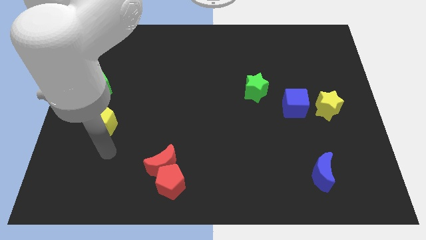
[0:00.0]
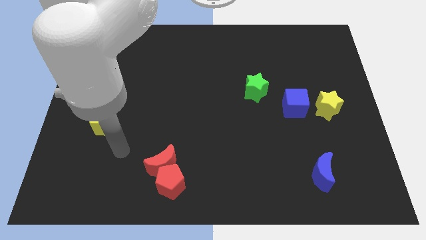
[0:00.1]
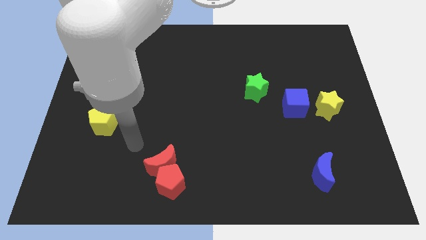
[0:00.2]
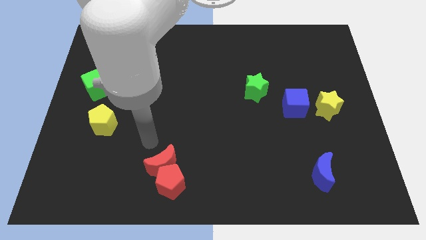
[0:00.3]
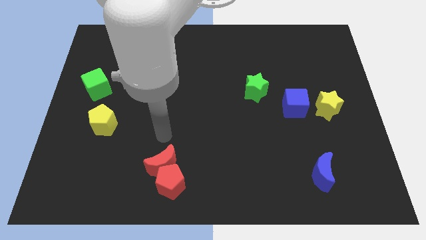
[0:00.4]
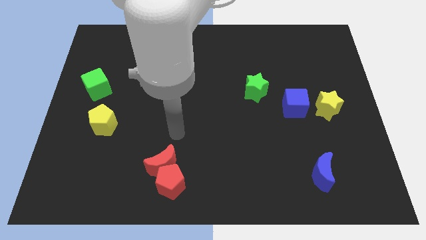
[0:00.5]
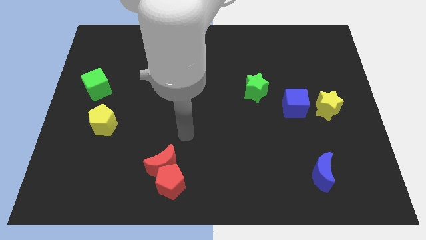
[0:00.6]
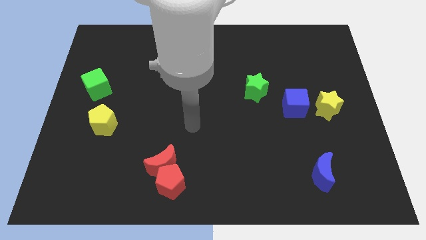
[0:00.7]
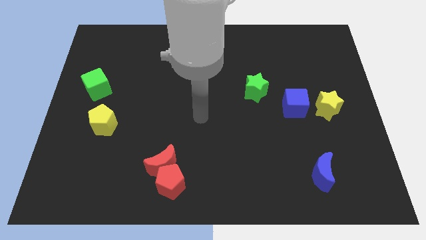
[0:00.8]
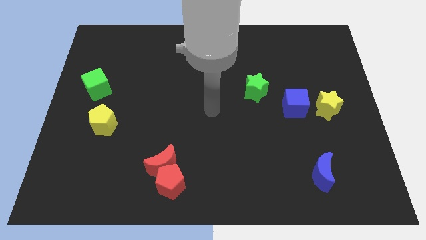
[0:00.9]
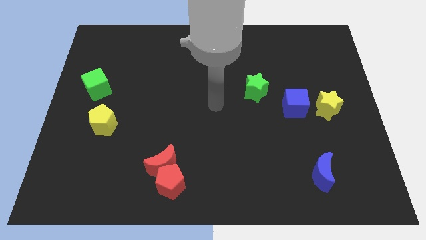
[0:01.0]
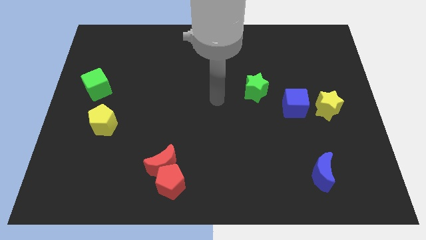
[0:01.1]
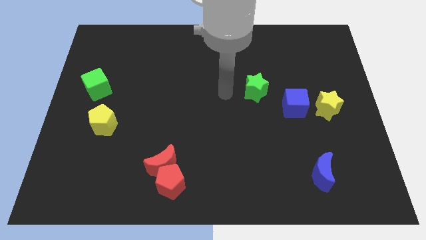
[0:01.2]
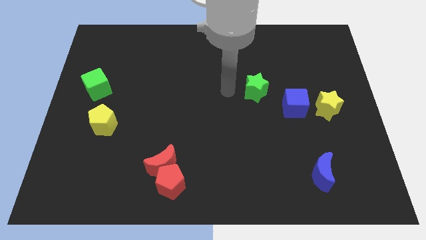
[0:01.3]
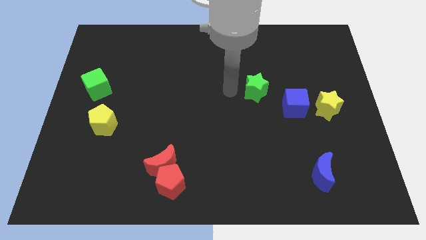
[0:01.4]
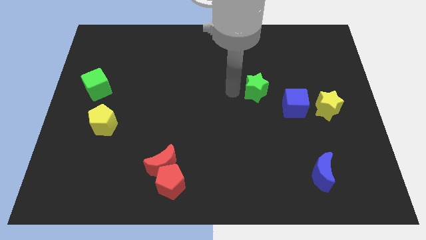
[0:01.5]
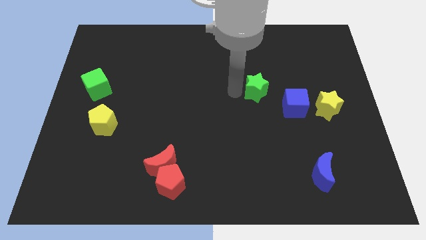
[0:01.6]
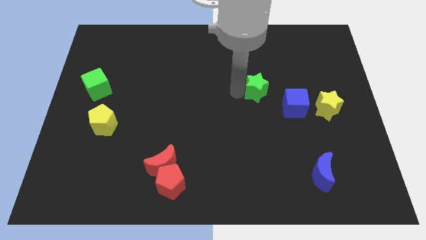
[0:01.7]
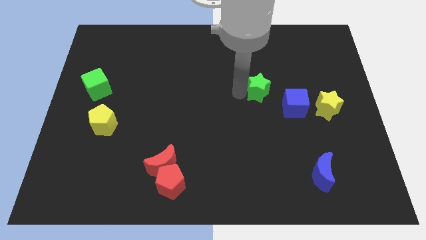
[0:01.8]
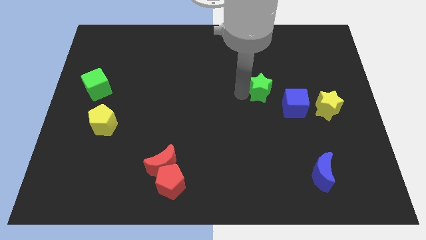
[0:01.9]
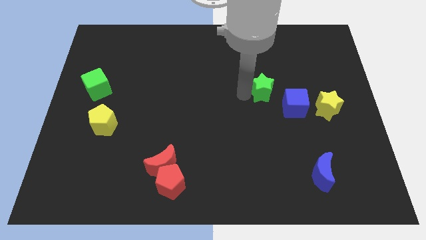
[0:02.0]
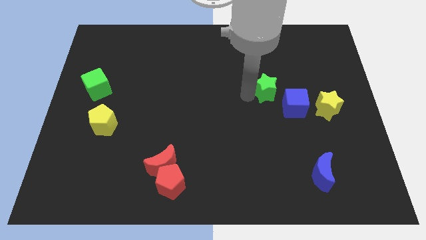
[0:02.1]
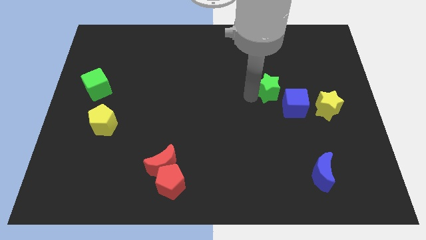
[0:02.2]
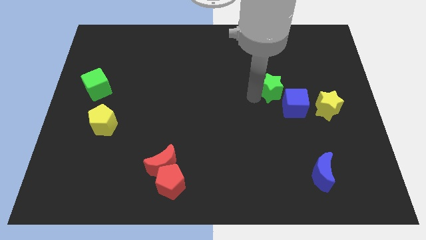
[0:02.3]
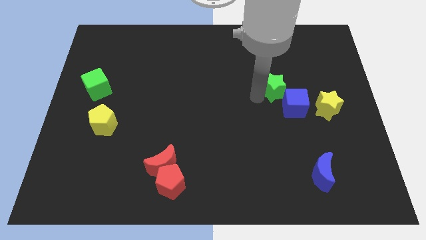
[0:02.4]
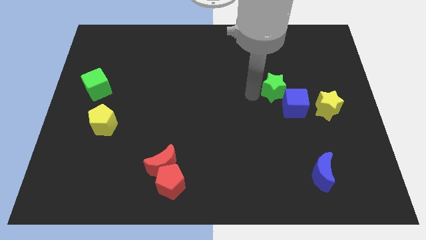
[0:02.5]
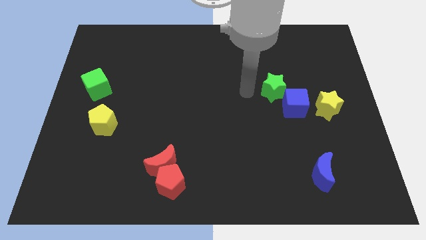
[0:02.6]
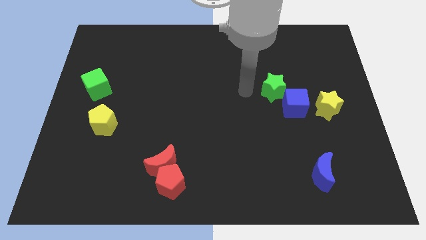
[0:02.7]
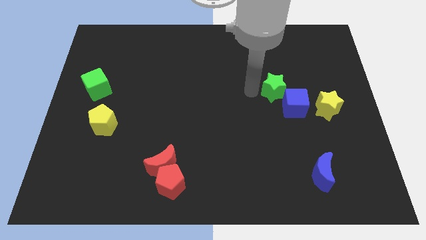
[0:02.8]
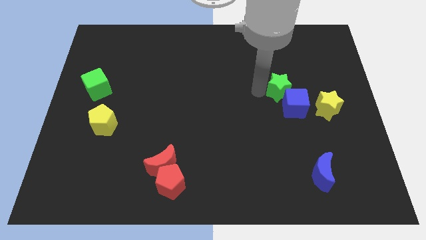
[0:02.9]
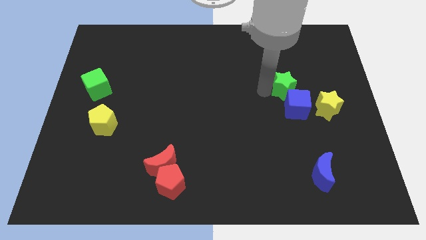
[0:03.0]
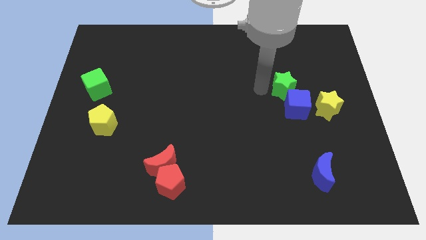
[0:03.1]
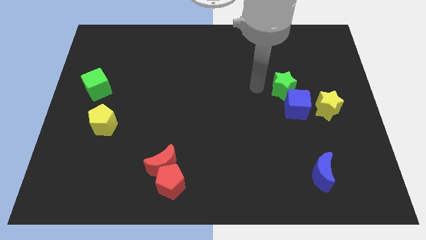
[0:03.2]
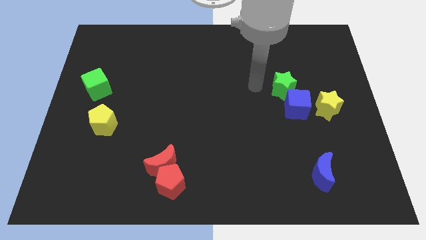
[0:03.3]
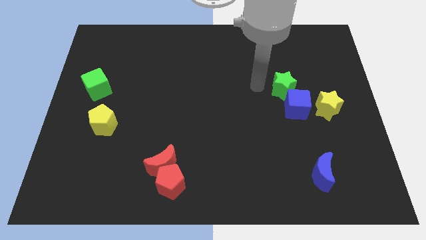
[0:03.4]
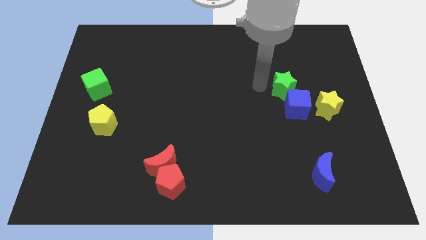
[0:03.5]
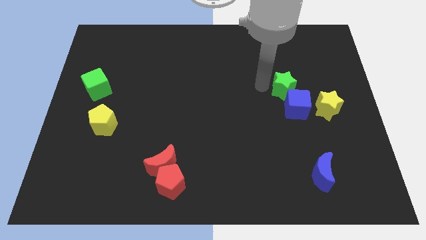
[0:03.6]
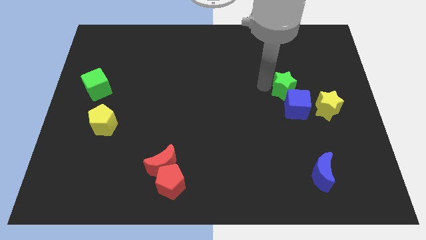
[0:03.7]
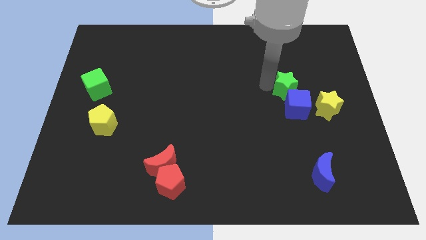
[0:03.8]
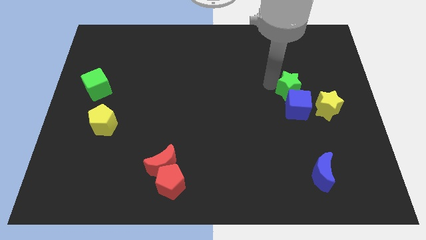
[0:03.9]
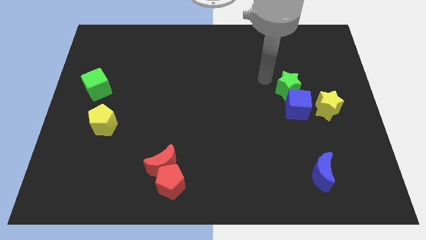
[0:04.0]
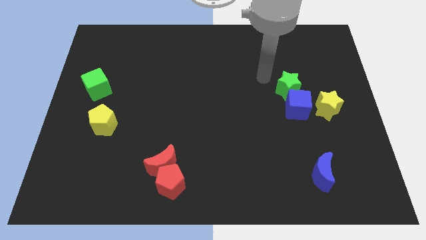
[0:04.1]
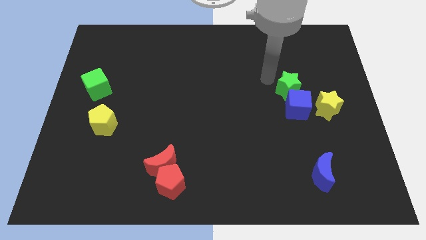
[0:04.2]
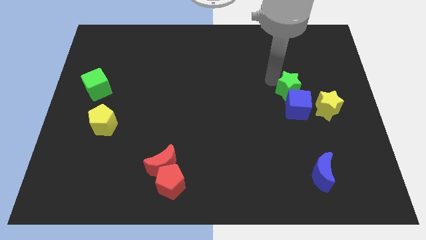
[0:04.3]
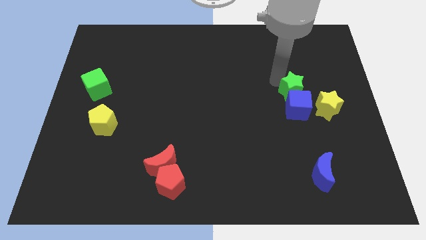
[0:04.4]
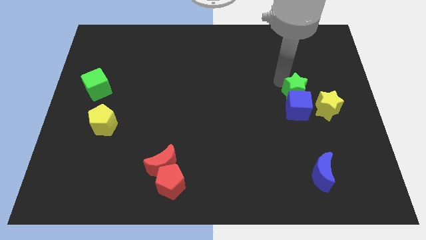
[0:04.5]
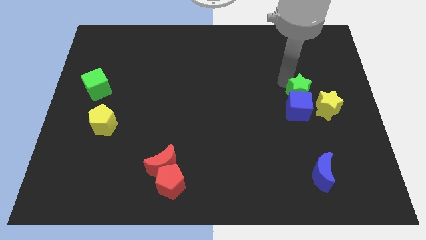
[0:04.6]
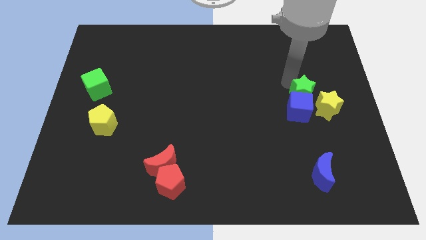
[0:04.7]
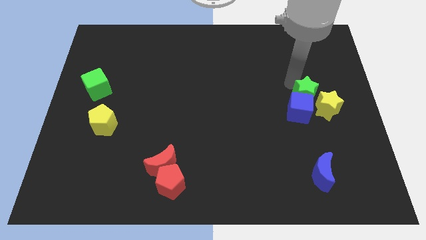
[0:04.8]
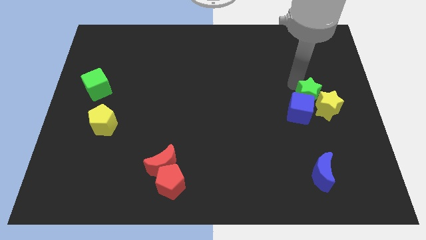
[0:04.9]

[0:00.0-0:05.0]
put the green star next to the yellow star

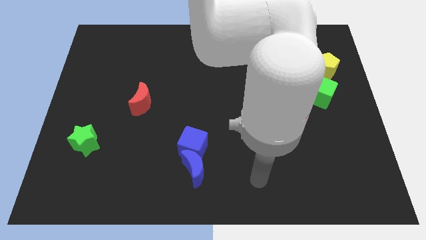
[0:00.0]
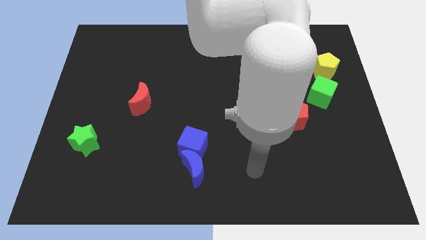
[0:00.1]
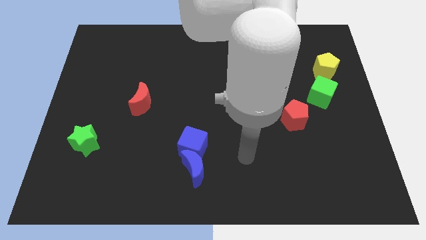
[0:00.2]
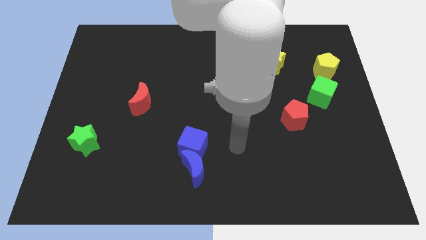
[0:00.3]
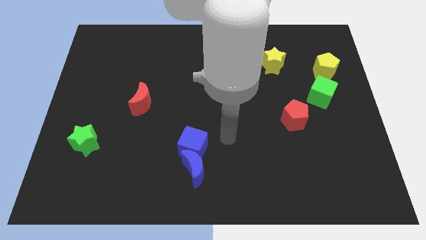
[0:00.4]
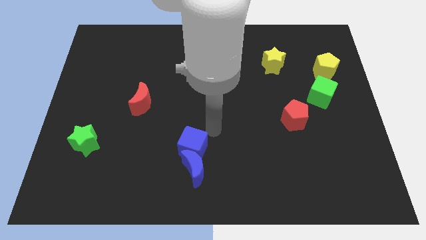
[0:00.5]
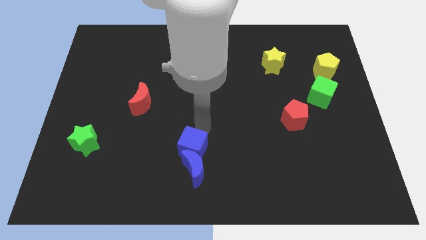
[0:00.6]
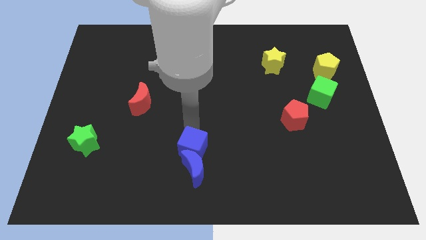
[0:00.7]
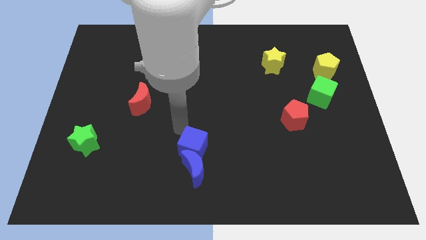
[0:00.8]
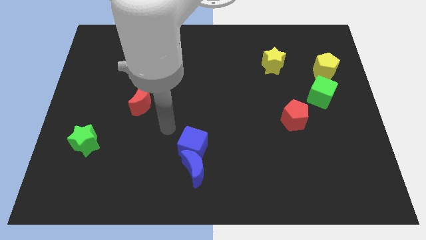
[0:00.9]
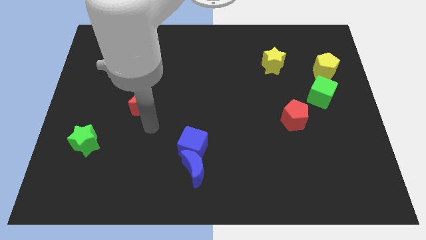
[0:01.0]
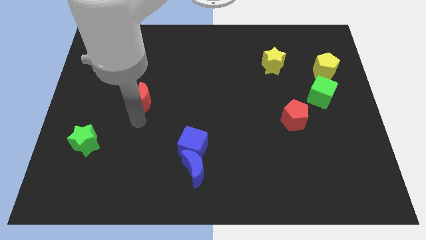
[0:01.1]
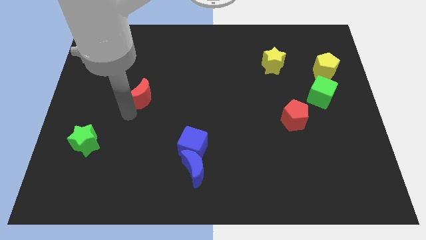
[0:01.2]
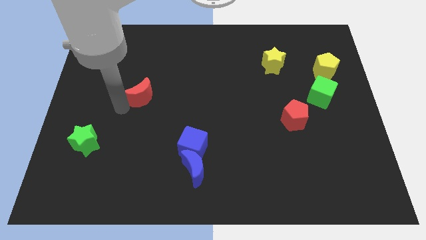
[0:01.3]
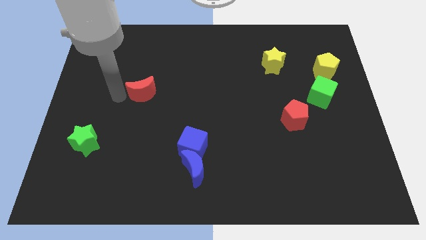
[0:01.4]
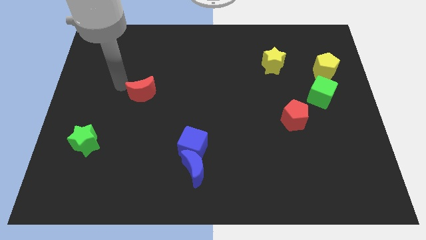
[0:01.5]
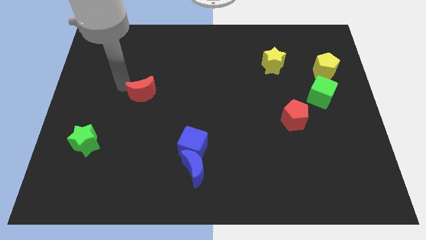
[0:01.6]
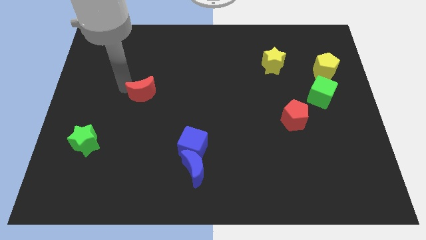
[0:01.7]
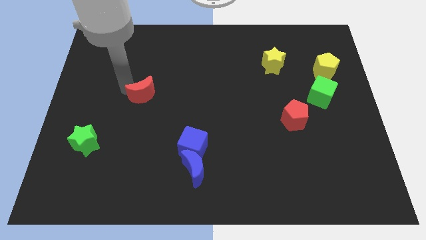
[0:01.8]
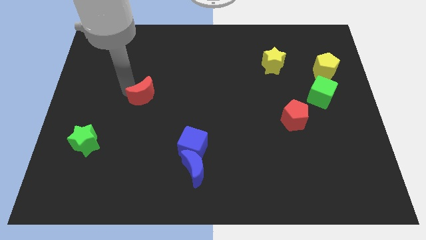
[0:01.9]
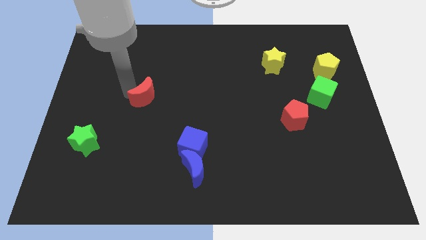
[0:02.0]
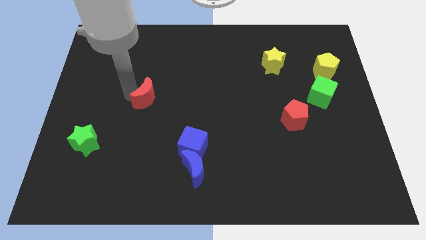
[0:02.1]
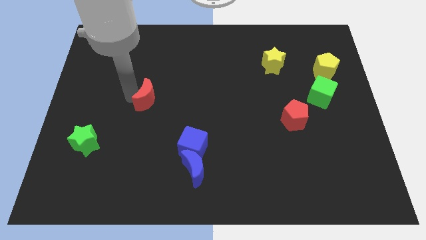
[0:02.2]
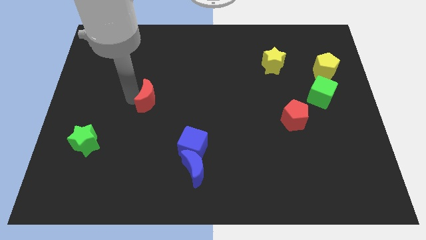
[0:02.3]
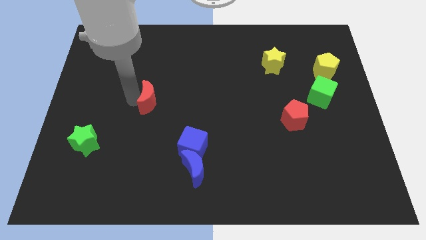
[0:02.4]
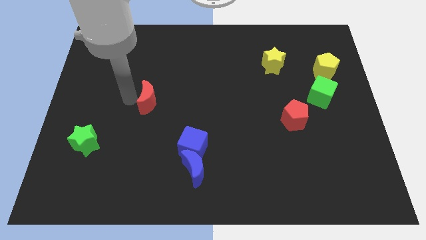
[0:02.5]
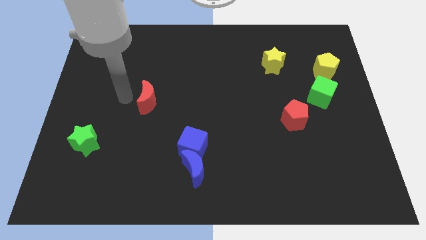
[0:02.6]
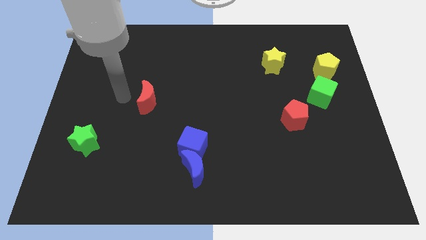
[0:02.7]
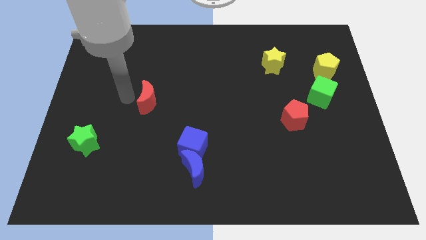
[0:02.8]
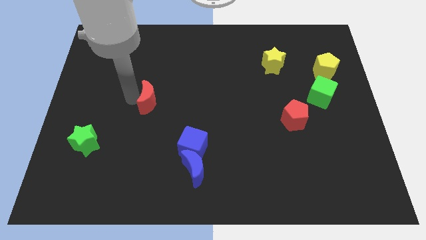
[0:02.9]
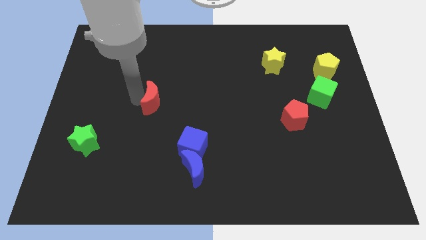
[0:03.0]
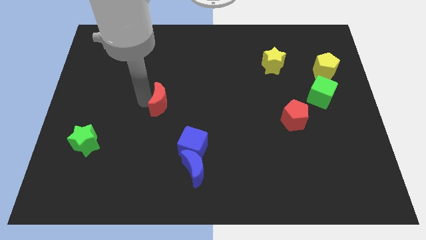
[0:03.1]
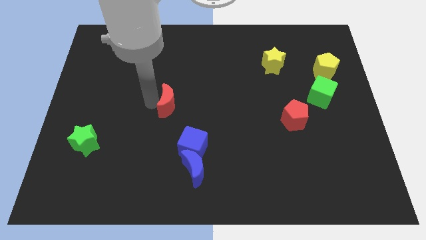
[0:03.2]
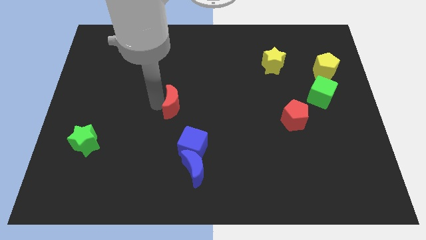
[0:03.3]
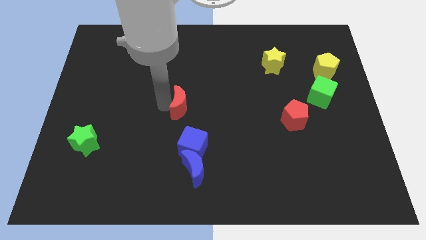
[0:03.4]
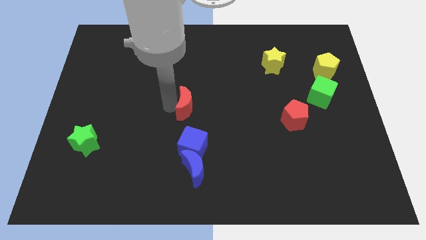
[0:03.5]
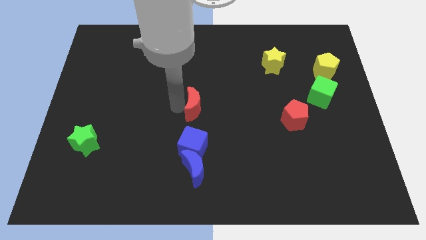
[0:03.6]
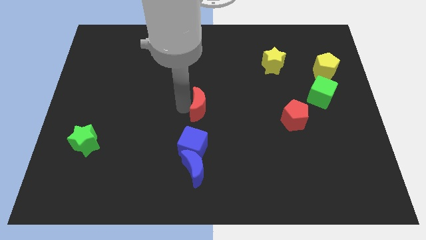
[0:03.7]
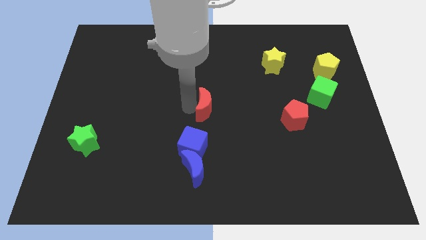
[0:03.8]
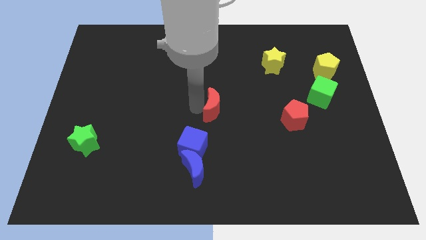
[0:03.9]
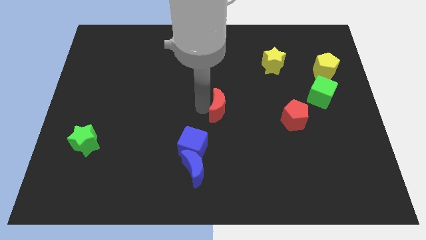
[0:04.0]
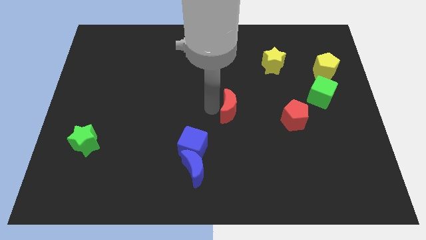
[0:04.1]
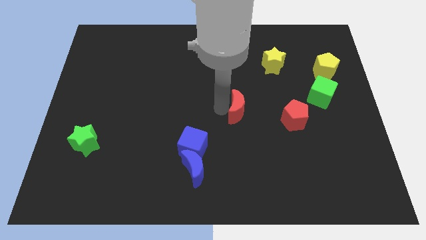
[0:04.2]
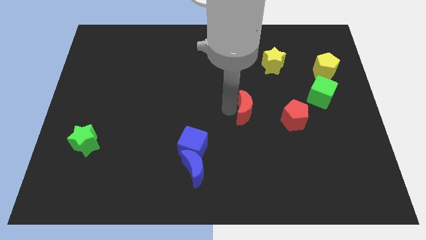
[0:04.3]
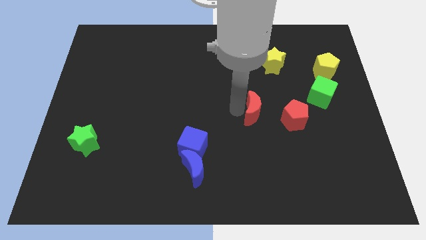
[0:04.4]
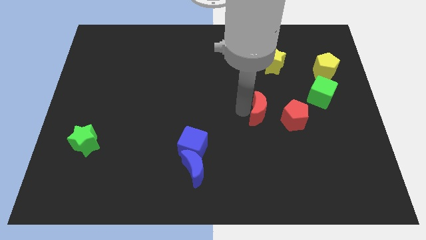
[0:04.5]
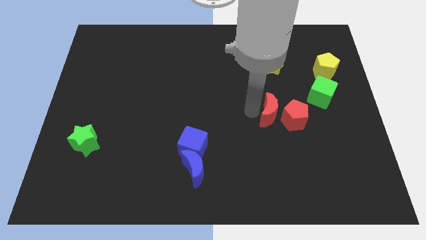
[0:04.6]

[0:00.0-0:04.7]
move the red moon close to the red pentagon
